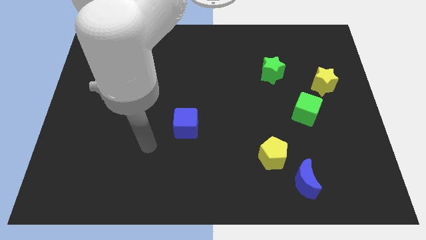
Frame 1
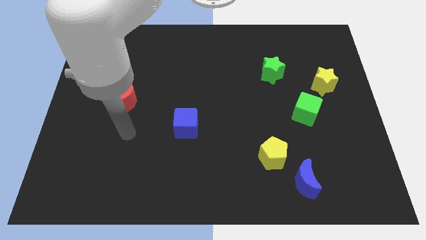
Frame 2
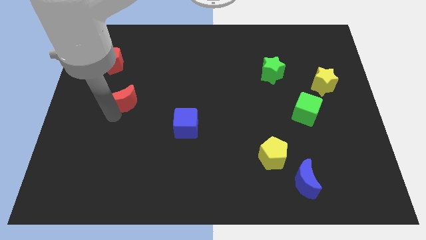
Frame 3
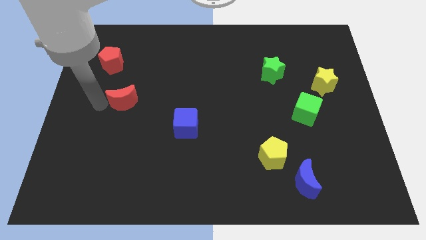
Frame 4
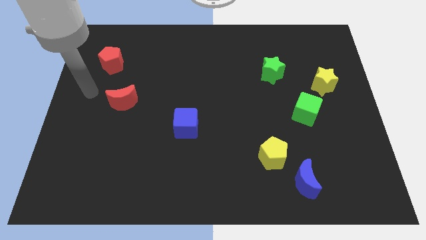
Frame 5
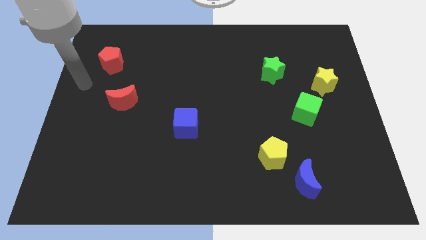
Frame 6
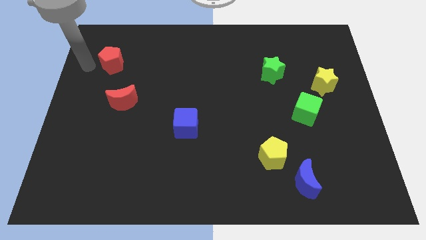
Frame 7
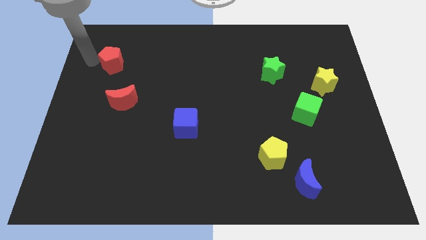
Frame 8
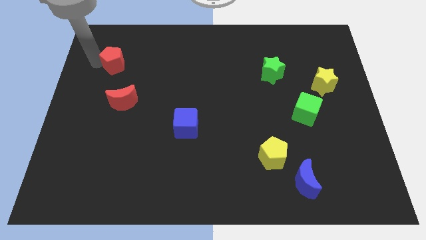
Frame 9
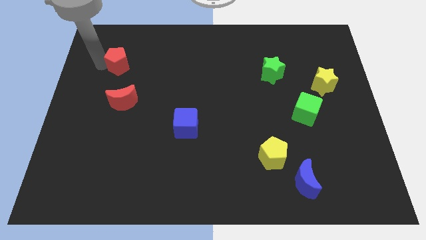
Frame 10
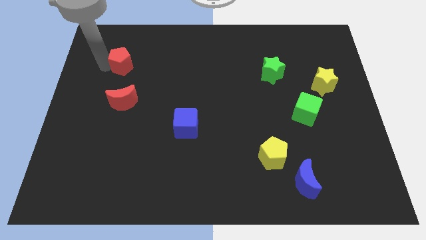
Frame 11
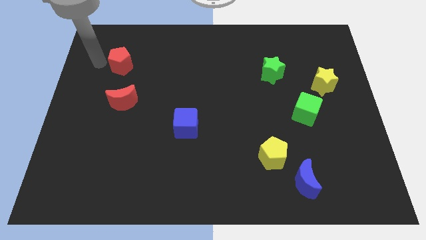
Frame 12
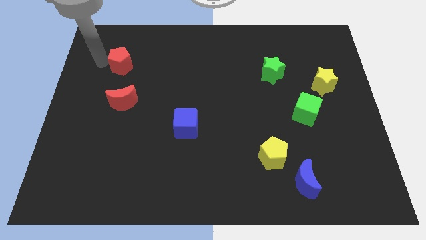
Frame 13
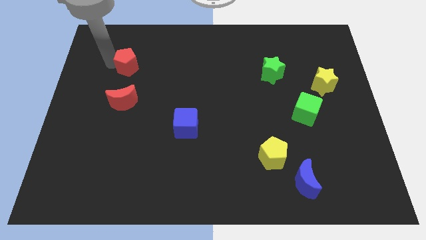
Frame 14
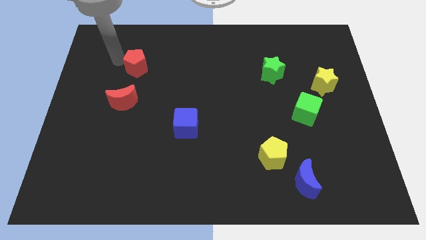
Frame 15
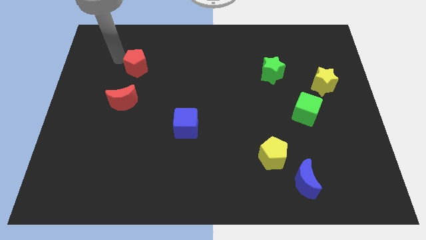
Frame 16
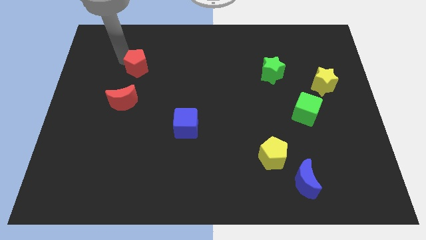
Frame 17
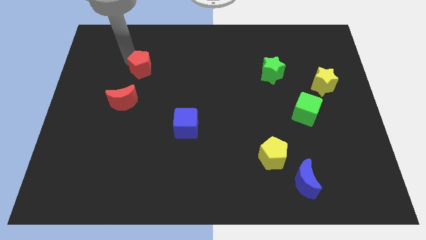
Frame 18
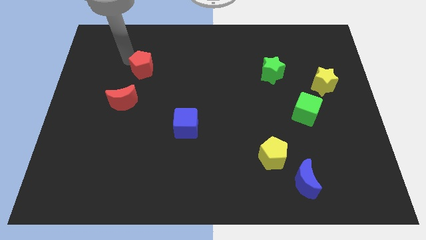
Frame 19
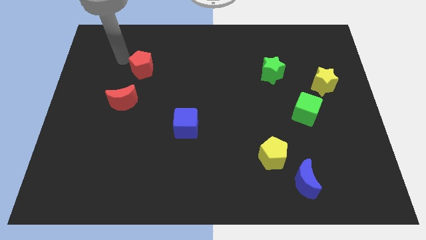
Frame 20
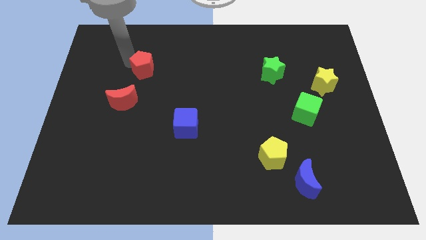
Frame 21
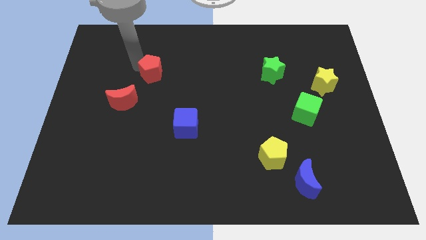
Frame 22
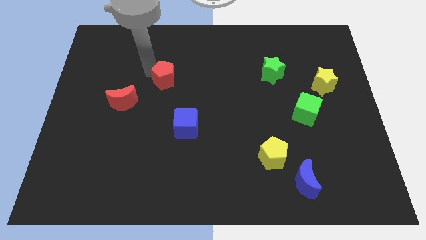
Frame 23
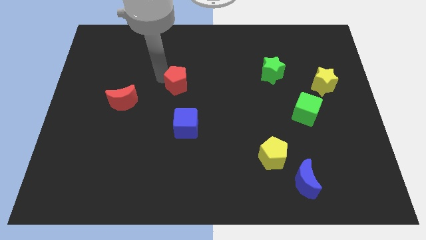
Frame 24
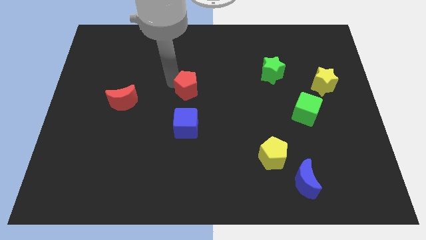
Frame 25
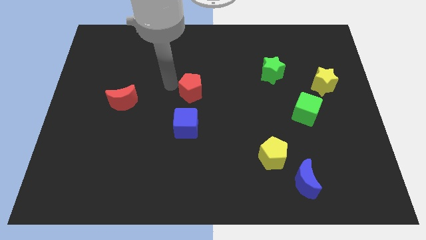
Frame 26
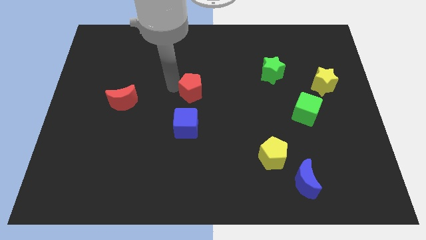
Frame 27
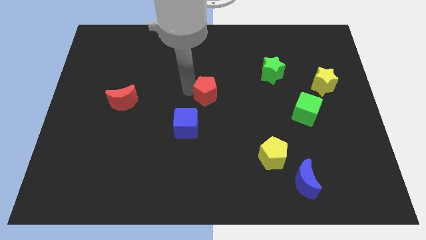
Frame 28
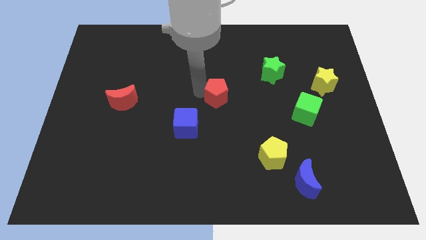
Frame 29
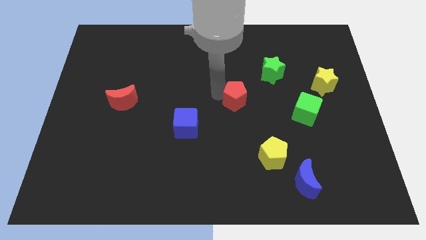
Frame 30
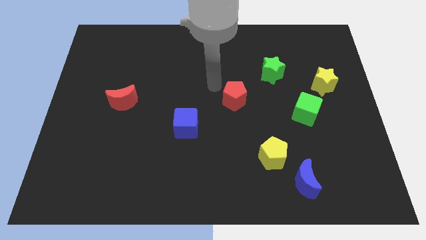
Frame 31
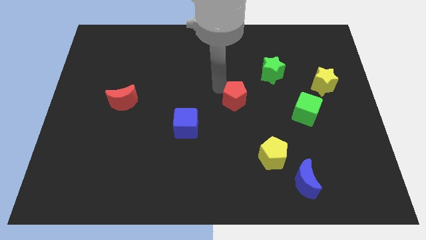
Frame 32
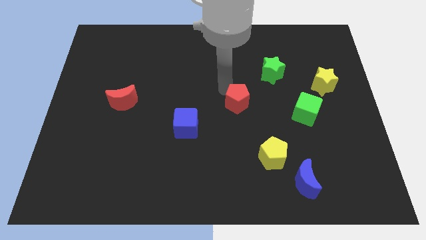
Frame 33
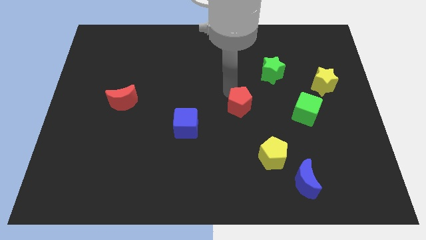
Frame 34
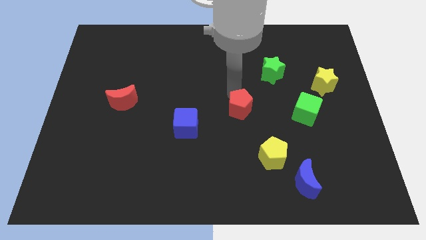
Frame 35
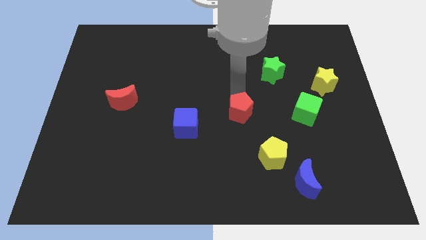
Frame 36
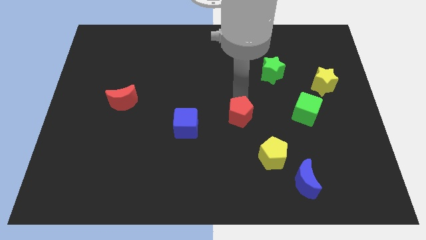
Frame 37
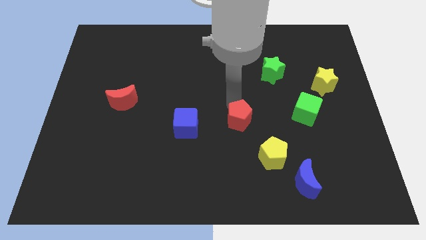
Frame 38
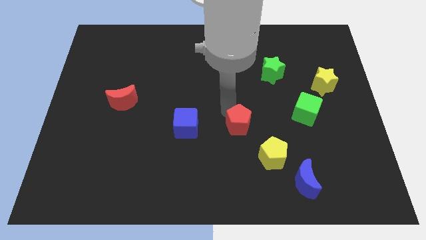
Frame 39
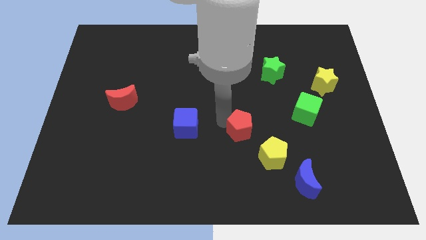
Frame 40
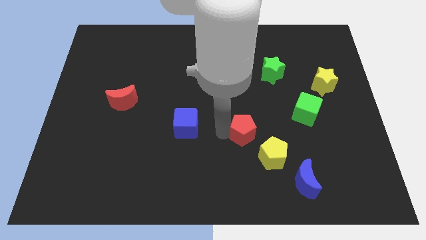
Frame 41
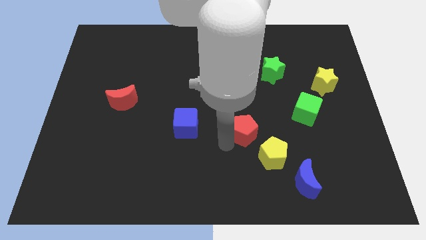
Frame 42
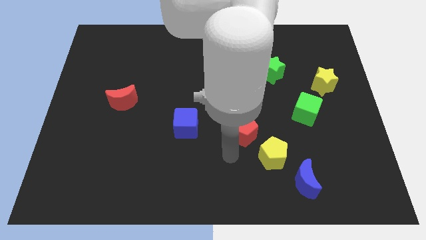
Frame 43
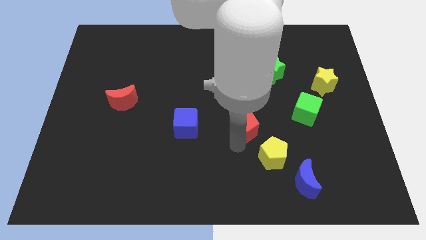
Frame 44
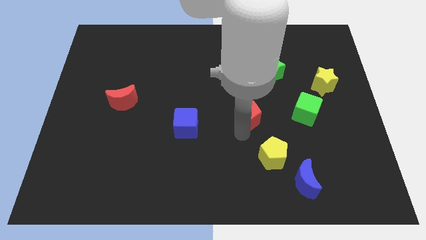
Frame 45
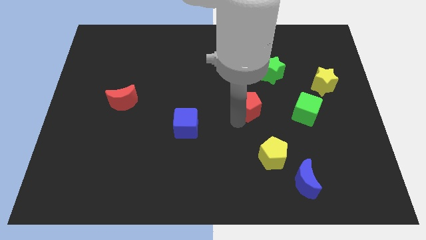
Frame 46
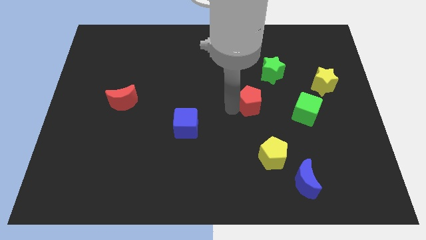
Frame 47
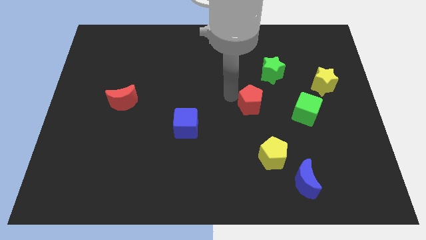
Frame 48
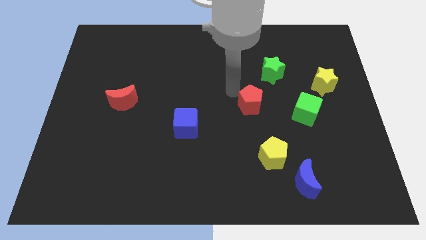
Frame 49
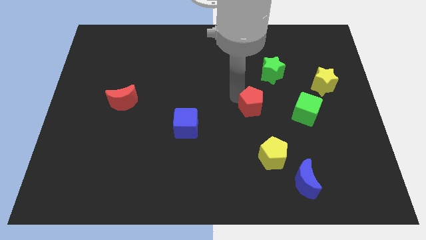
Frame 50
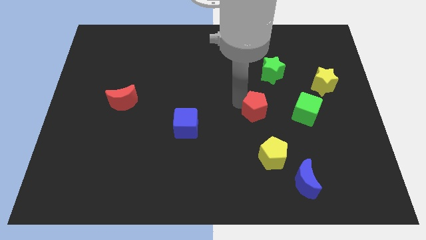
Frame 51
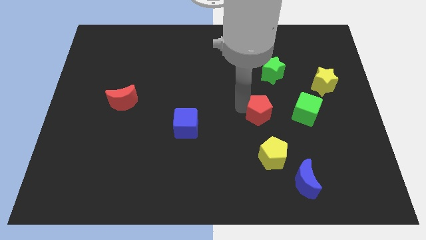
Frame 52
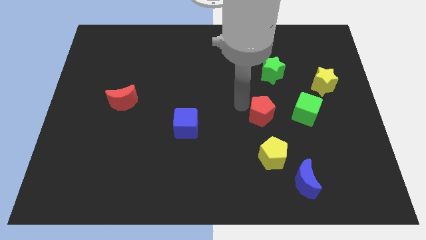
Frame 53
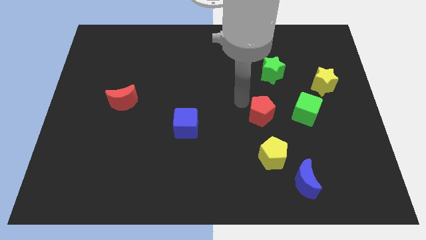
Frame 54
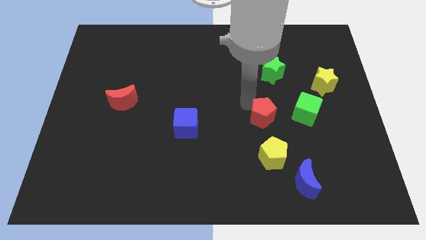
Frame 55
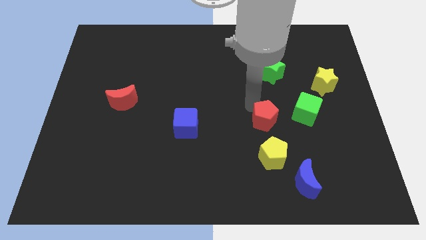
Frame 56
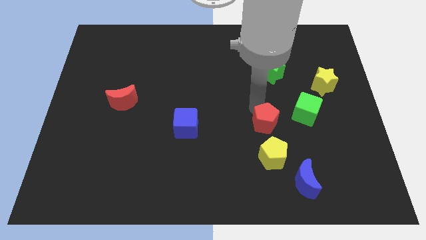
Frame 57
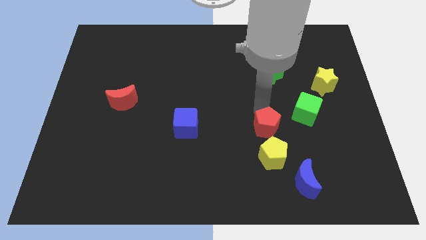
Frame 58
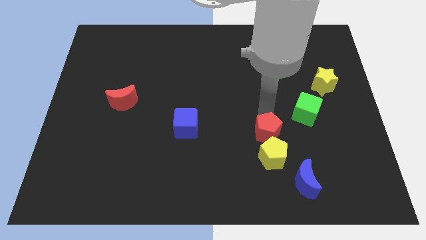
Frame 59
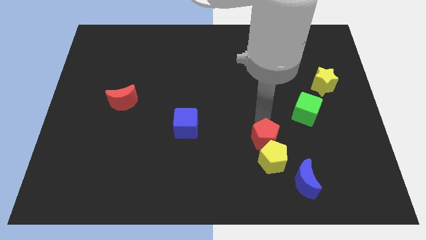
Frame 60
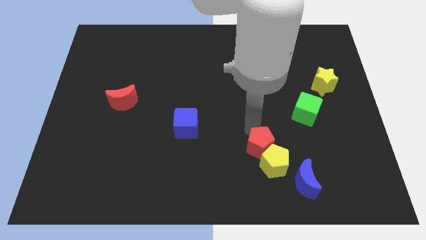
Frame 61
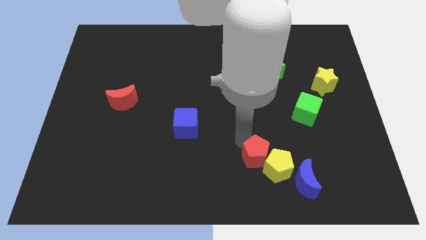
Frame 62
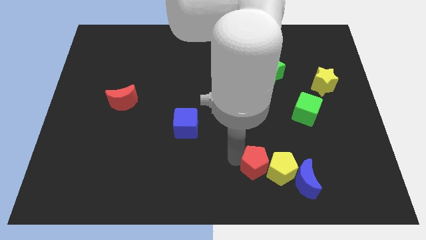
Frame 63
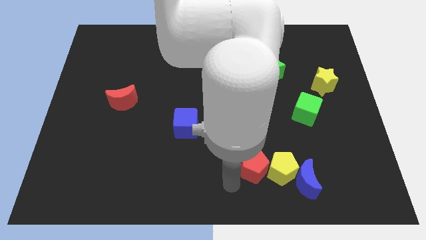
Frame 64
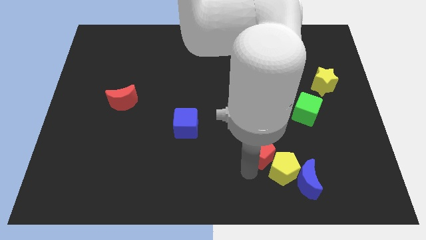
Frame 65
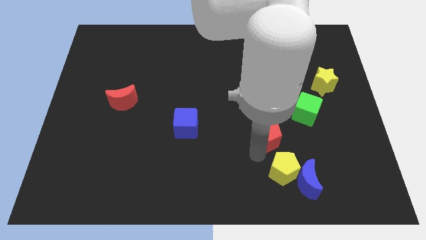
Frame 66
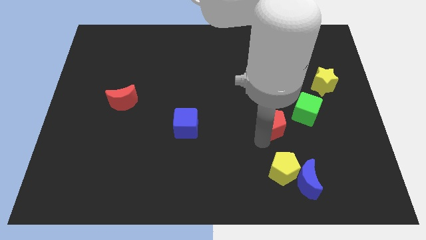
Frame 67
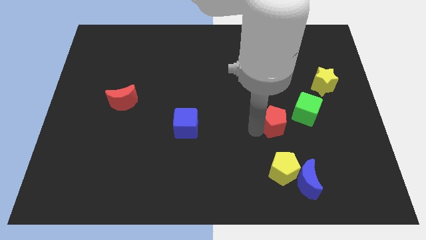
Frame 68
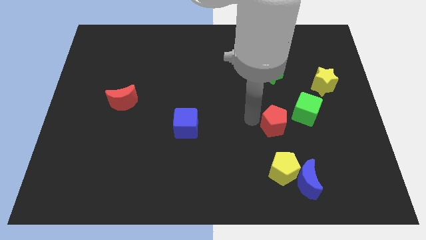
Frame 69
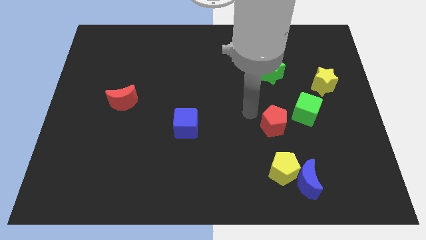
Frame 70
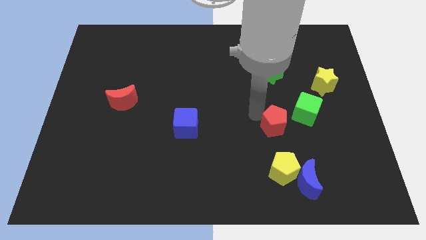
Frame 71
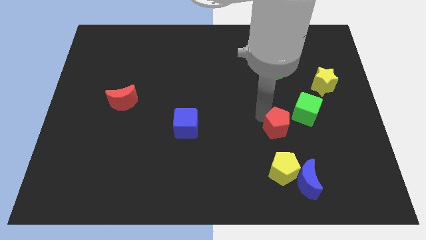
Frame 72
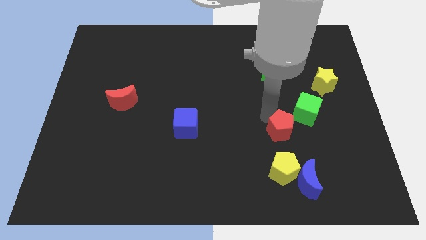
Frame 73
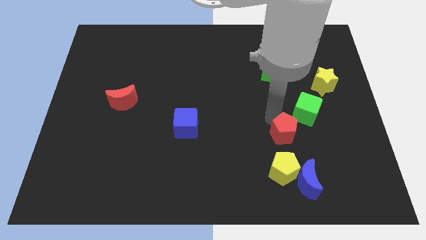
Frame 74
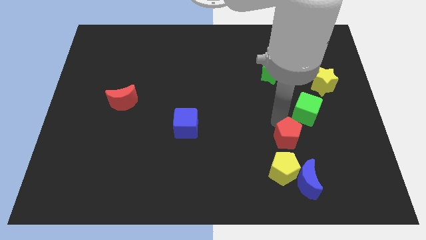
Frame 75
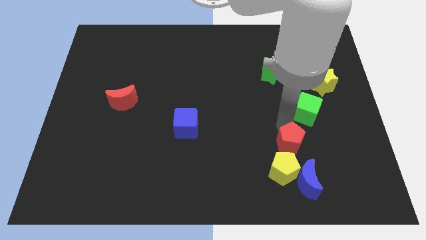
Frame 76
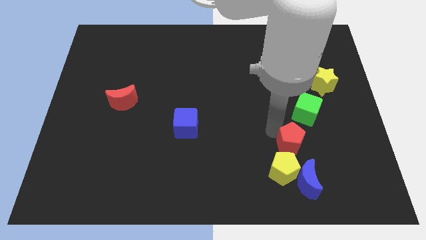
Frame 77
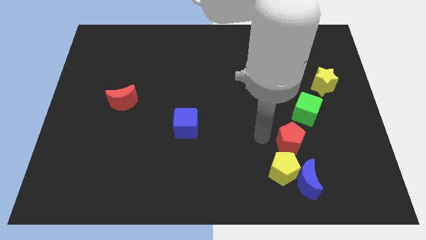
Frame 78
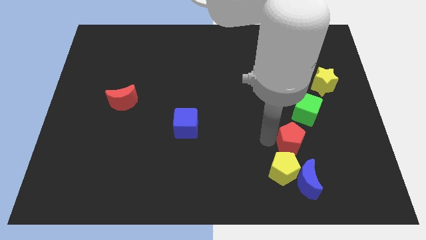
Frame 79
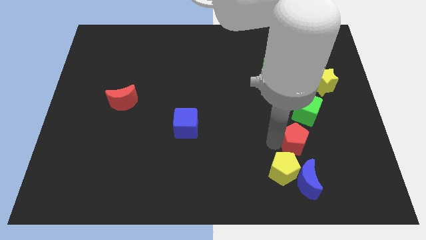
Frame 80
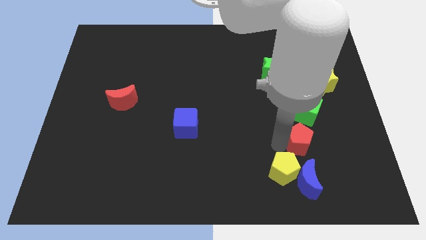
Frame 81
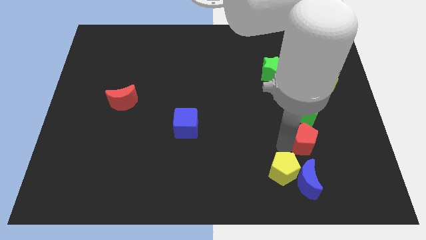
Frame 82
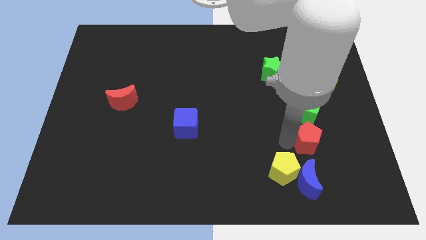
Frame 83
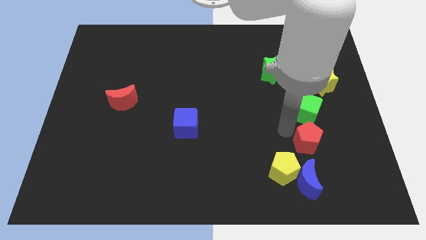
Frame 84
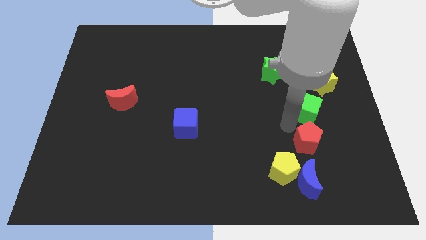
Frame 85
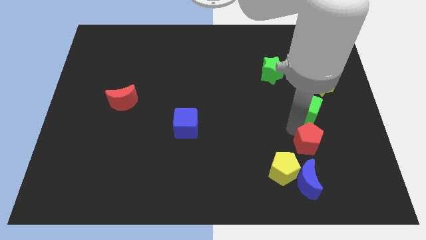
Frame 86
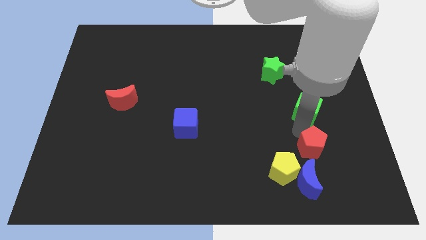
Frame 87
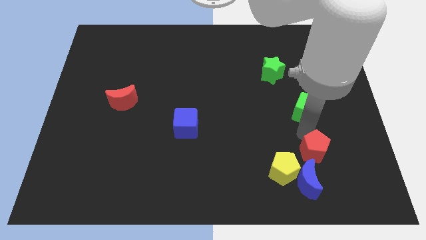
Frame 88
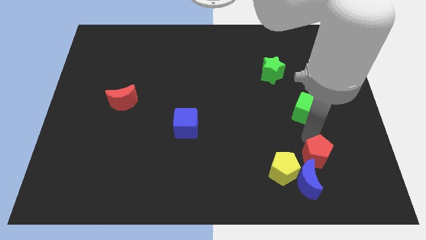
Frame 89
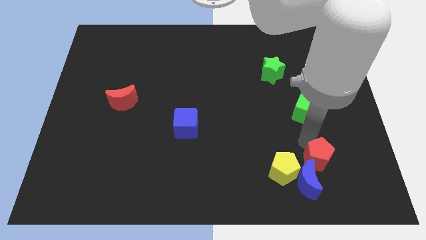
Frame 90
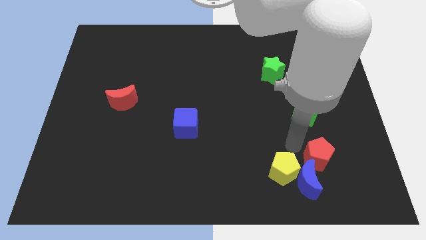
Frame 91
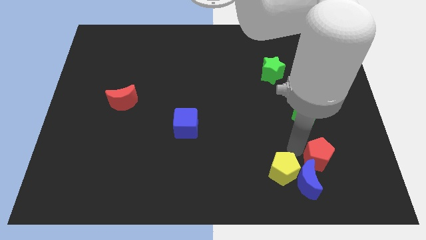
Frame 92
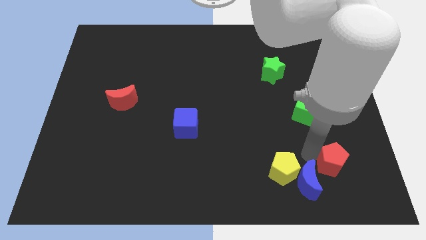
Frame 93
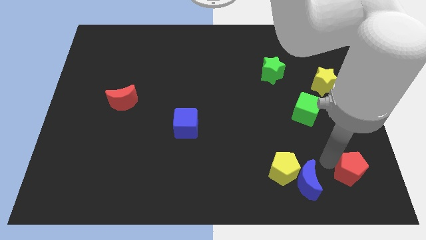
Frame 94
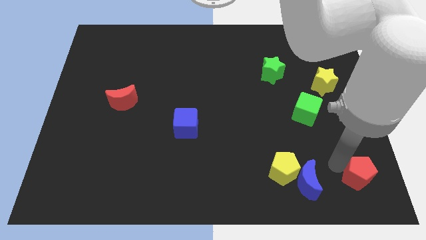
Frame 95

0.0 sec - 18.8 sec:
slide the red pentagon to the bottom right of the board
